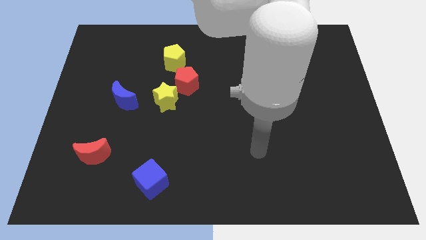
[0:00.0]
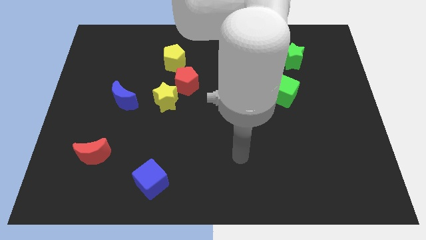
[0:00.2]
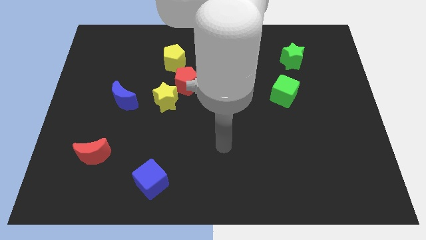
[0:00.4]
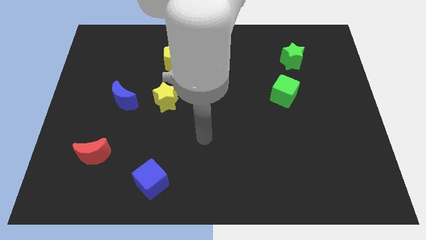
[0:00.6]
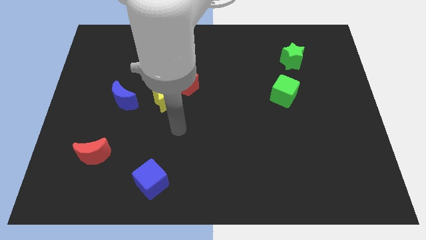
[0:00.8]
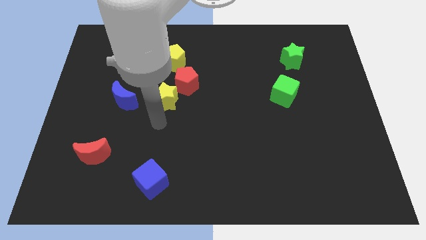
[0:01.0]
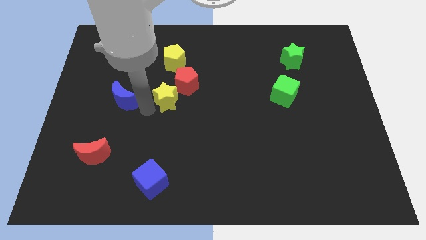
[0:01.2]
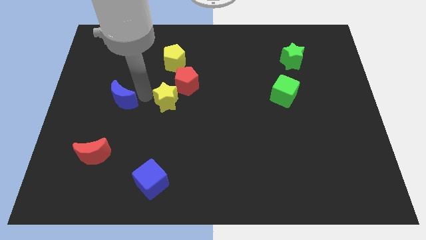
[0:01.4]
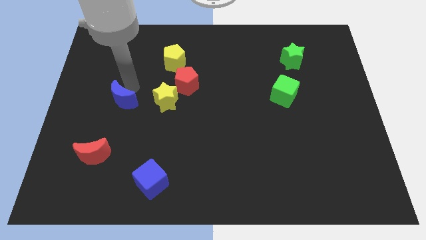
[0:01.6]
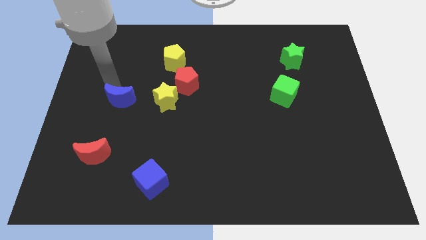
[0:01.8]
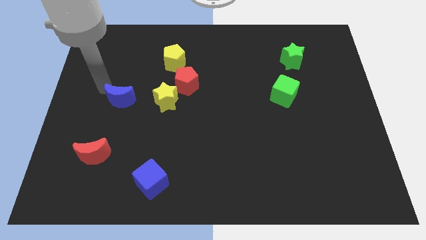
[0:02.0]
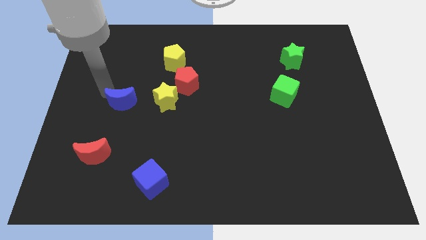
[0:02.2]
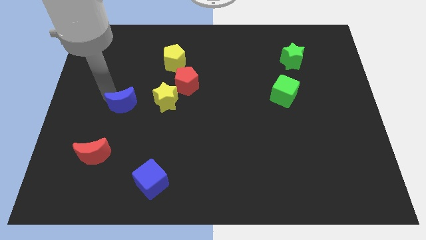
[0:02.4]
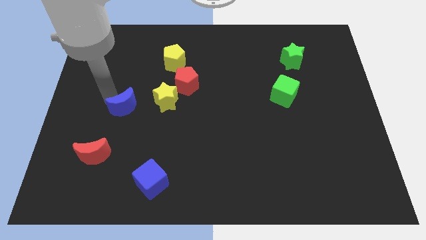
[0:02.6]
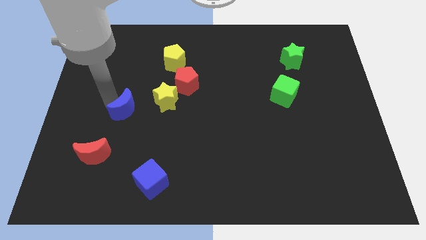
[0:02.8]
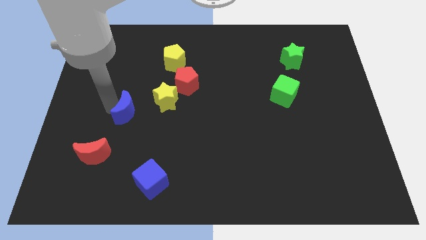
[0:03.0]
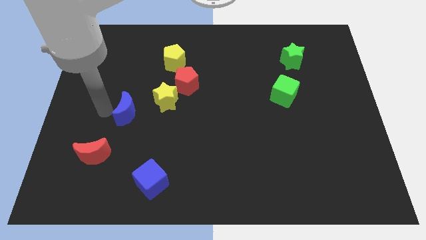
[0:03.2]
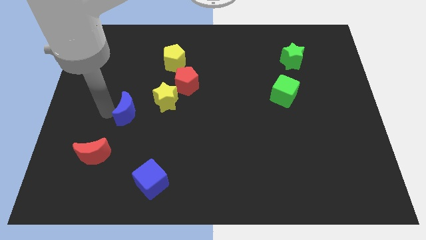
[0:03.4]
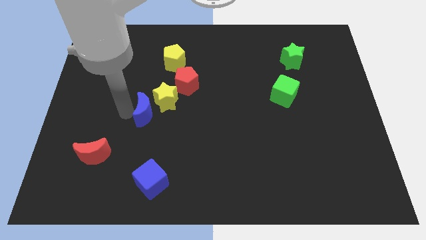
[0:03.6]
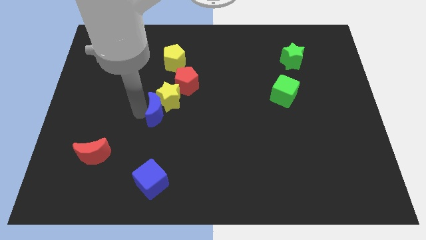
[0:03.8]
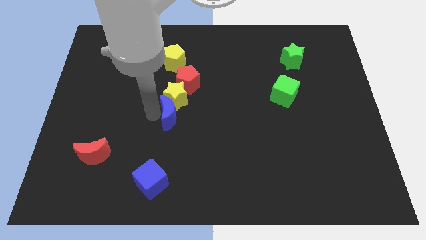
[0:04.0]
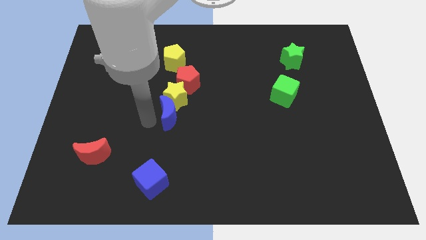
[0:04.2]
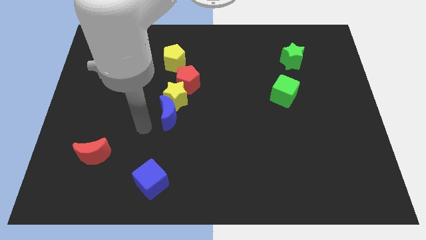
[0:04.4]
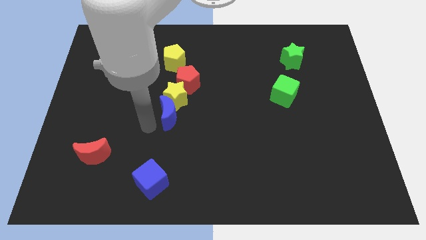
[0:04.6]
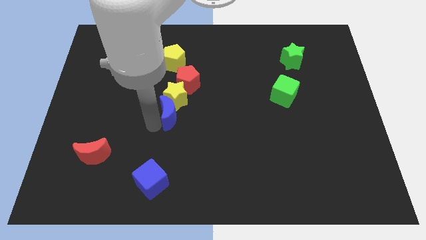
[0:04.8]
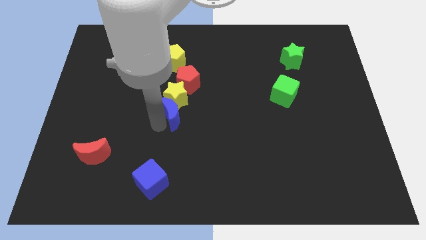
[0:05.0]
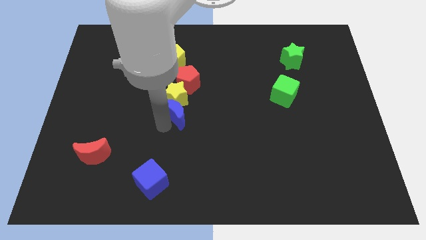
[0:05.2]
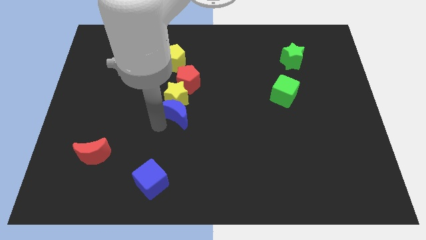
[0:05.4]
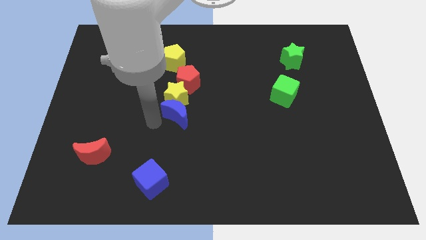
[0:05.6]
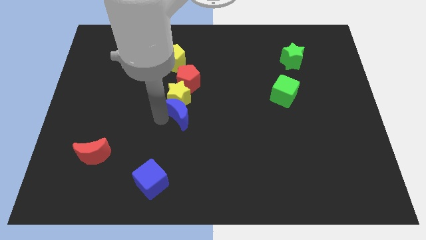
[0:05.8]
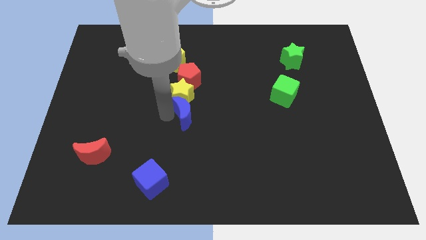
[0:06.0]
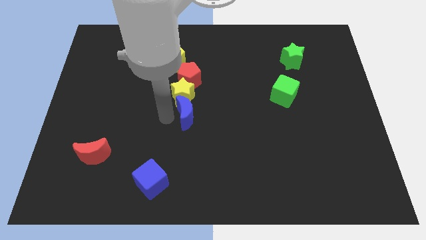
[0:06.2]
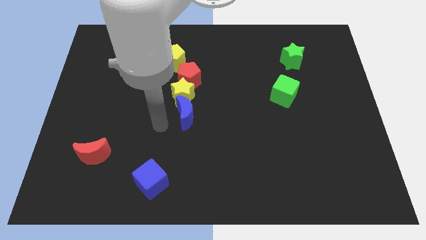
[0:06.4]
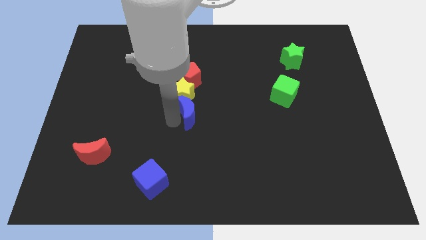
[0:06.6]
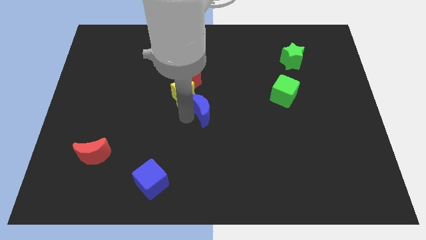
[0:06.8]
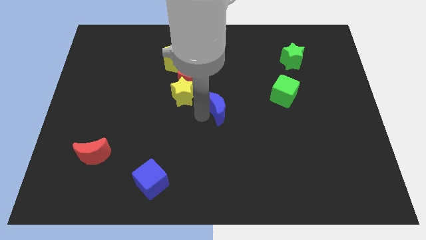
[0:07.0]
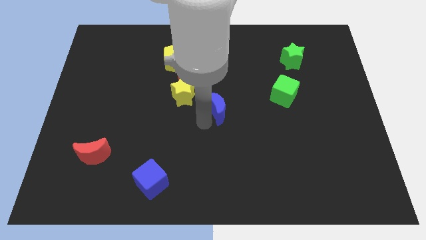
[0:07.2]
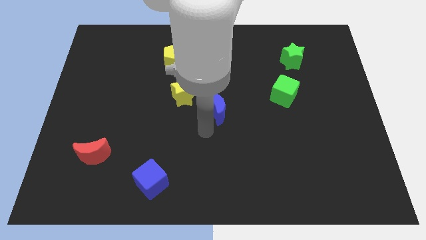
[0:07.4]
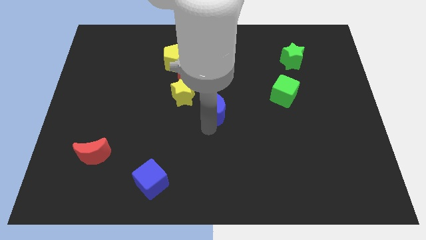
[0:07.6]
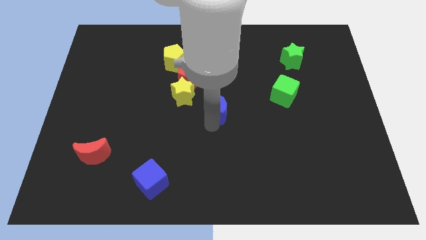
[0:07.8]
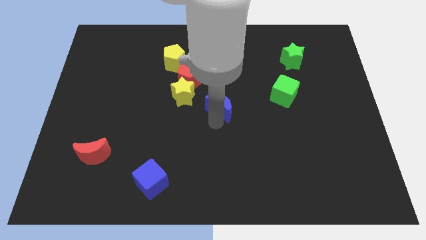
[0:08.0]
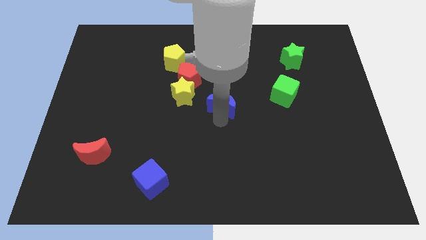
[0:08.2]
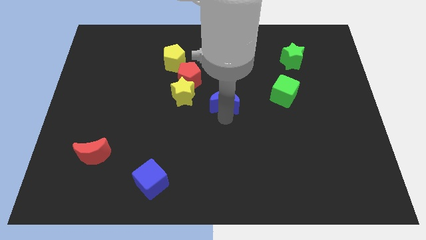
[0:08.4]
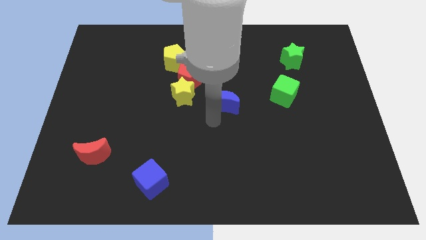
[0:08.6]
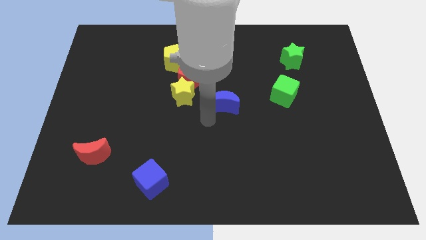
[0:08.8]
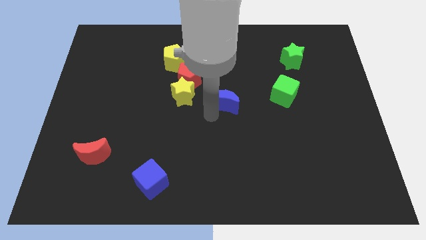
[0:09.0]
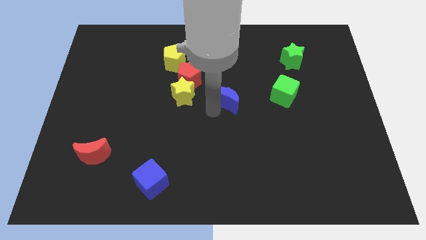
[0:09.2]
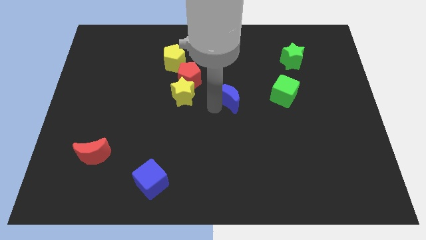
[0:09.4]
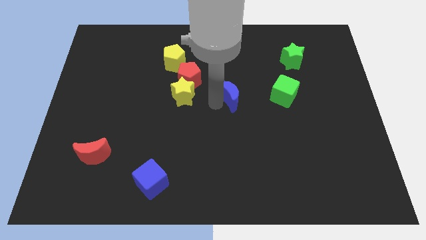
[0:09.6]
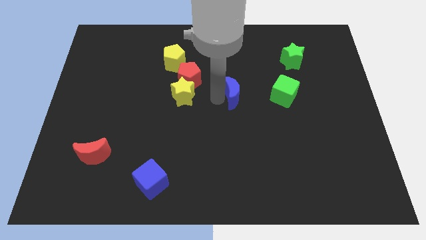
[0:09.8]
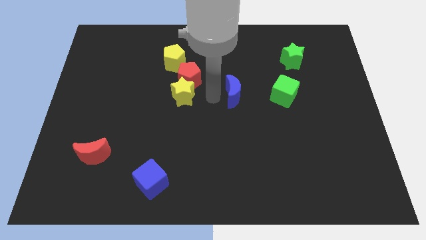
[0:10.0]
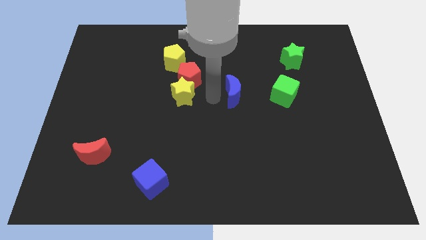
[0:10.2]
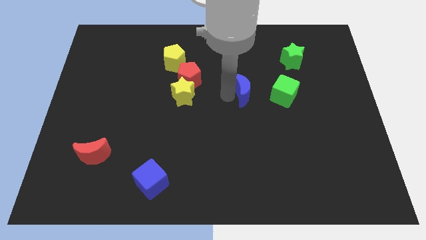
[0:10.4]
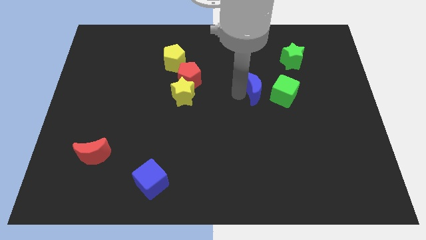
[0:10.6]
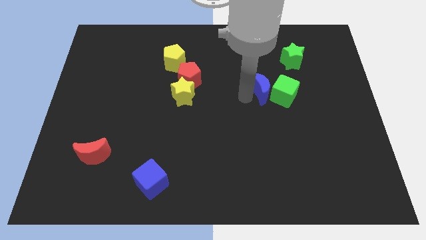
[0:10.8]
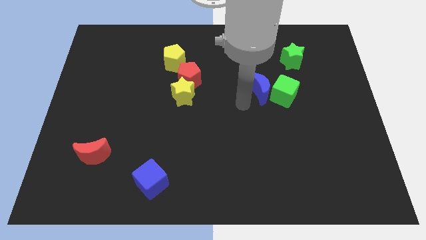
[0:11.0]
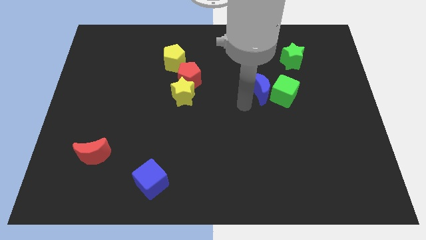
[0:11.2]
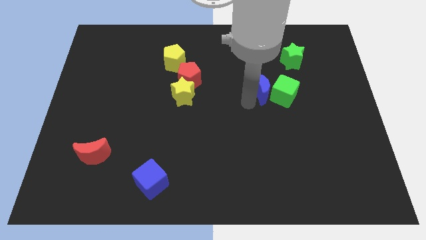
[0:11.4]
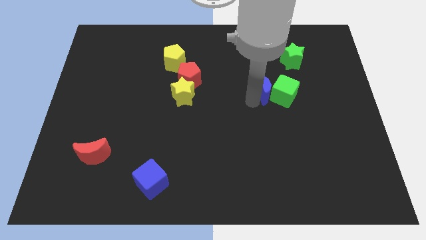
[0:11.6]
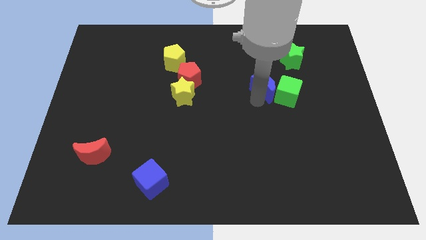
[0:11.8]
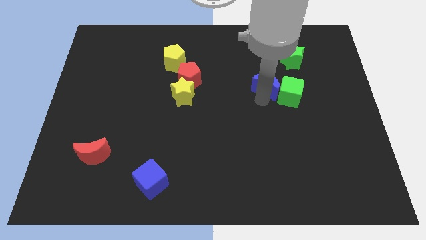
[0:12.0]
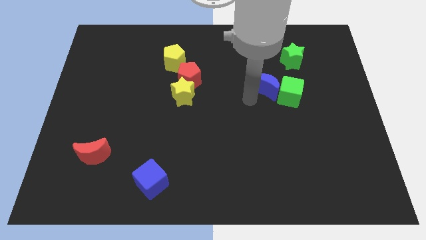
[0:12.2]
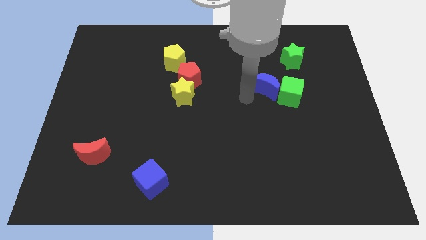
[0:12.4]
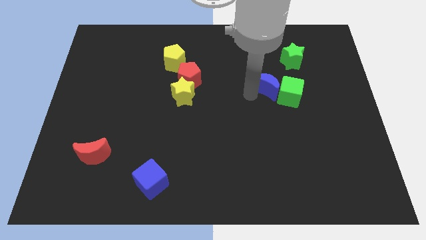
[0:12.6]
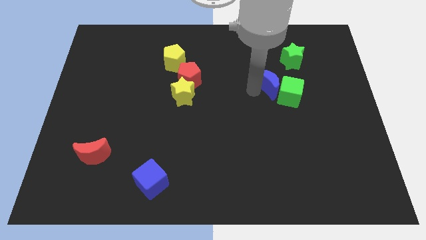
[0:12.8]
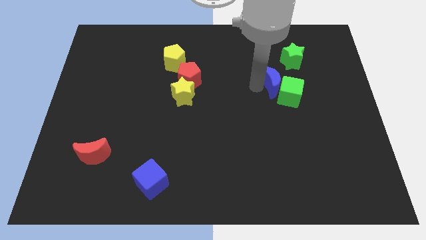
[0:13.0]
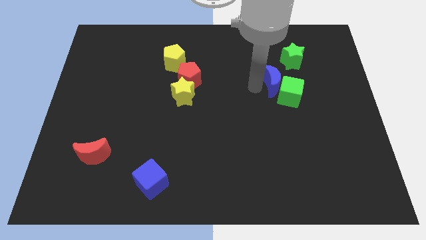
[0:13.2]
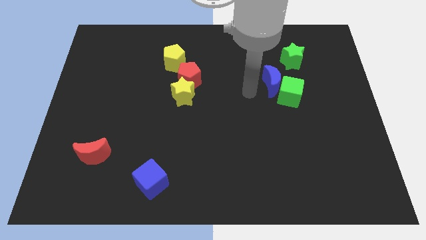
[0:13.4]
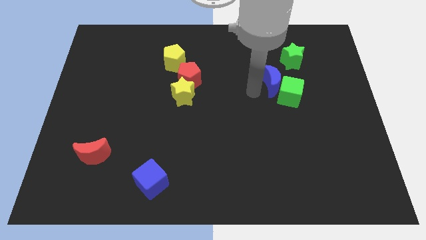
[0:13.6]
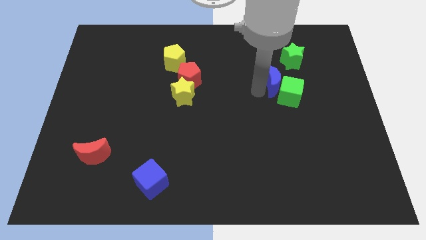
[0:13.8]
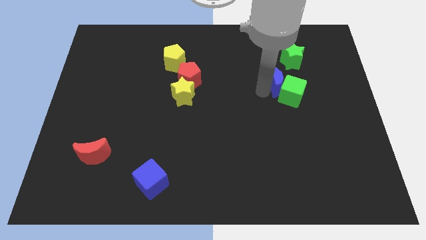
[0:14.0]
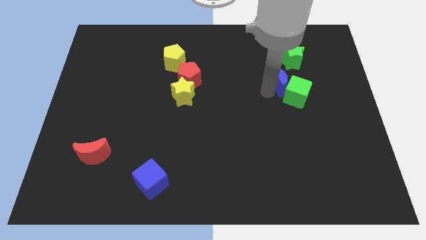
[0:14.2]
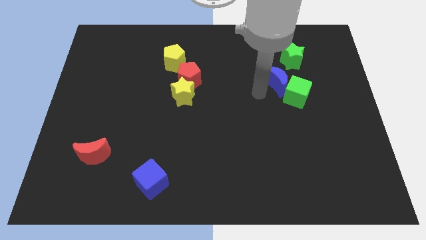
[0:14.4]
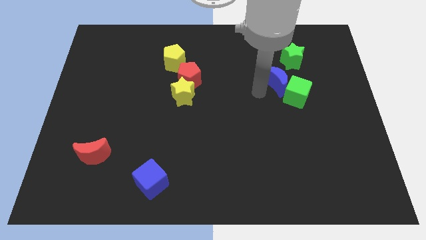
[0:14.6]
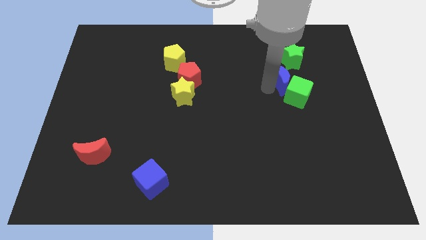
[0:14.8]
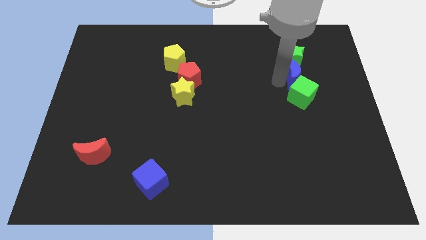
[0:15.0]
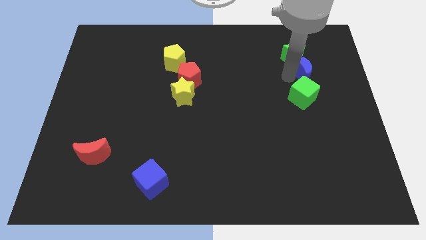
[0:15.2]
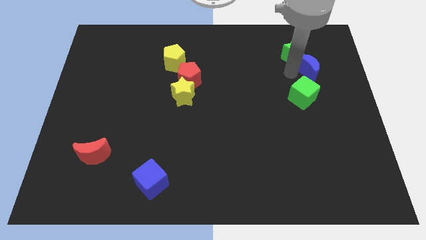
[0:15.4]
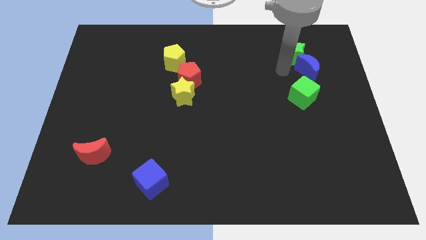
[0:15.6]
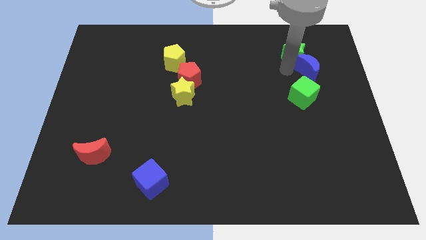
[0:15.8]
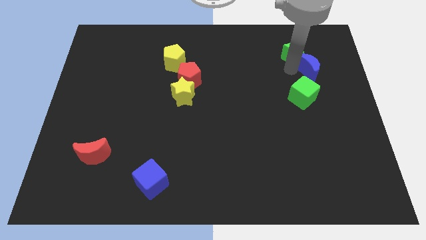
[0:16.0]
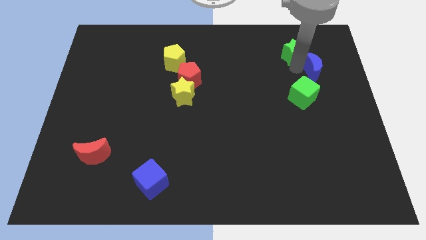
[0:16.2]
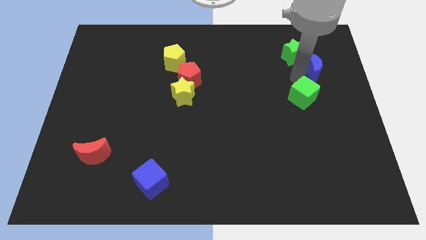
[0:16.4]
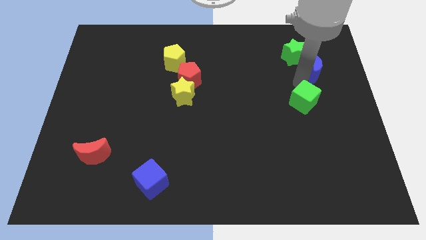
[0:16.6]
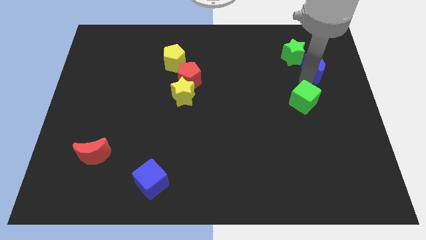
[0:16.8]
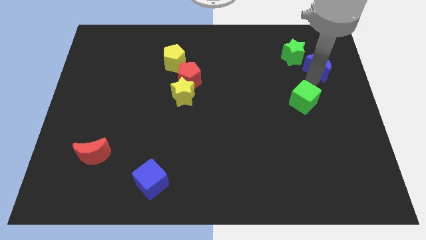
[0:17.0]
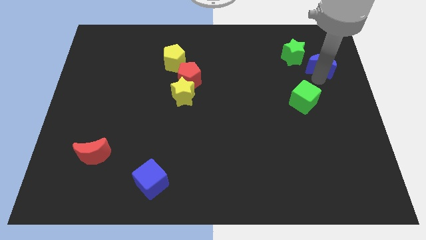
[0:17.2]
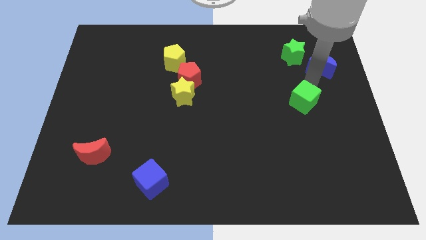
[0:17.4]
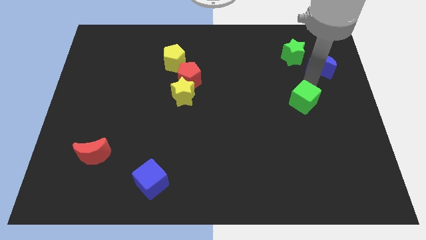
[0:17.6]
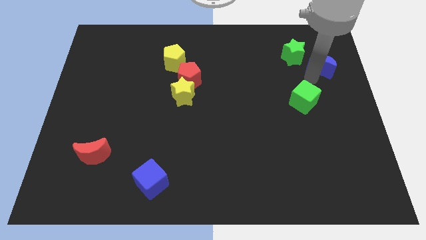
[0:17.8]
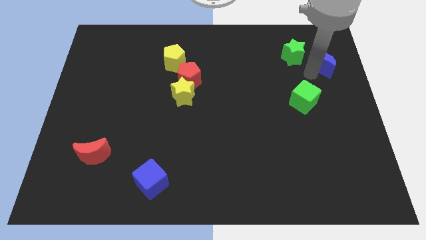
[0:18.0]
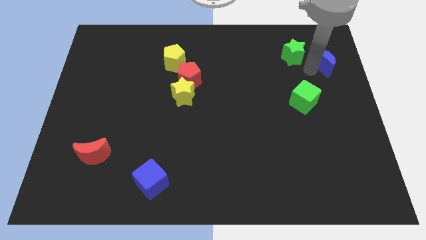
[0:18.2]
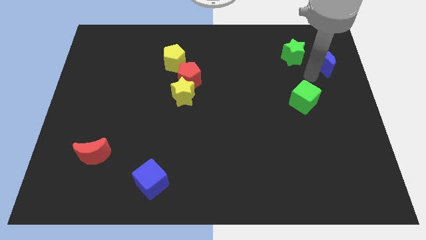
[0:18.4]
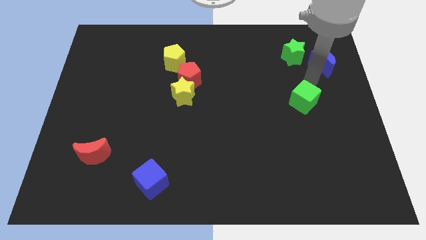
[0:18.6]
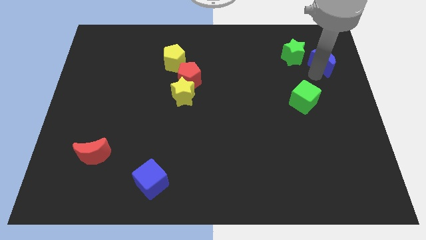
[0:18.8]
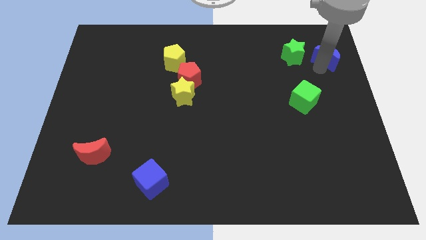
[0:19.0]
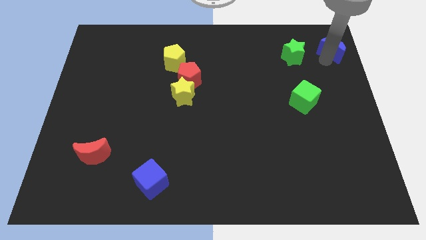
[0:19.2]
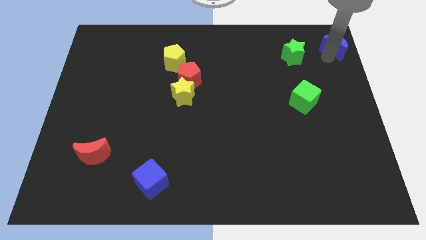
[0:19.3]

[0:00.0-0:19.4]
push the blue moon to the top right
